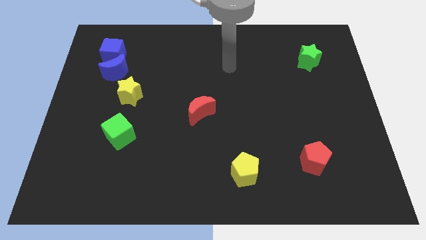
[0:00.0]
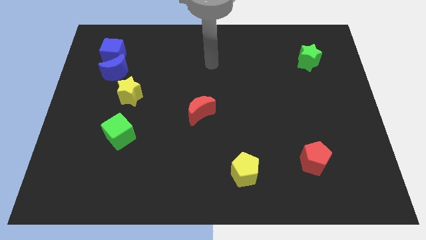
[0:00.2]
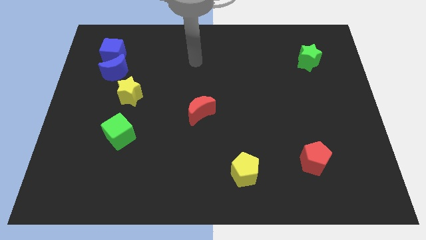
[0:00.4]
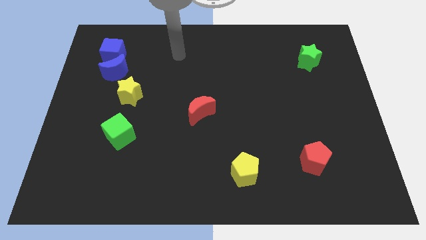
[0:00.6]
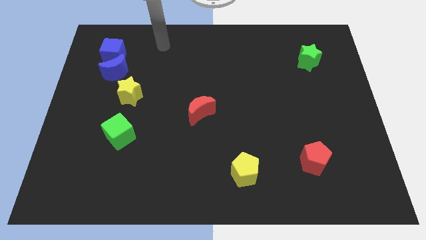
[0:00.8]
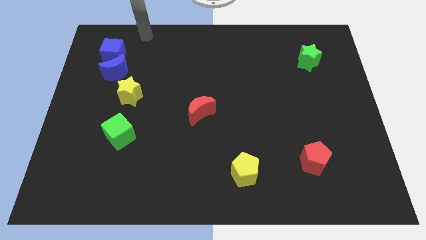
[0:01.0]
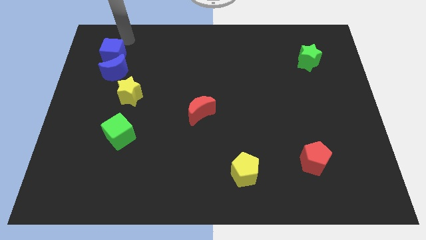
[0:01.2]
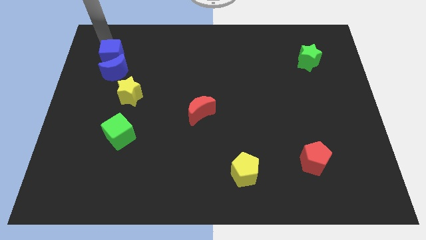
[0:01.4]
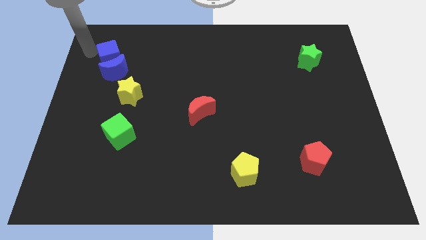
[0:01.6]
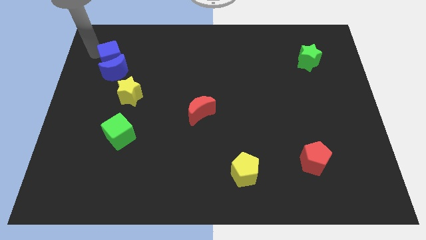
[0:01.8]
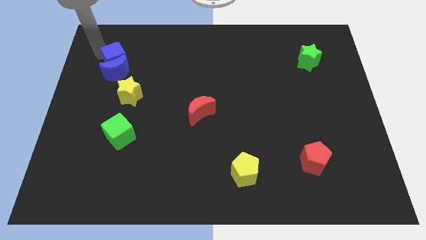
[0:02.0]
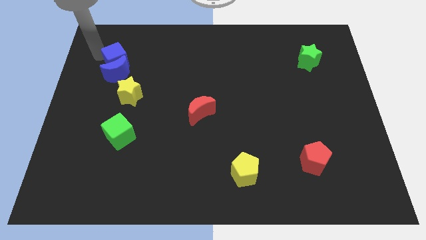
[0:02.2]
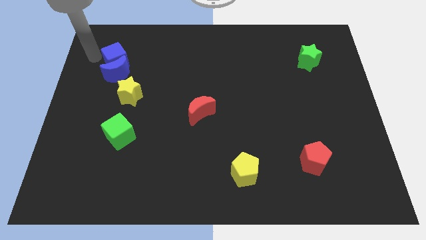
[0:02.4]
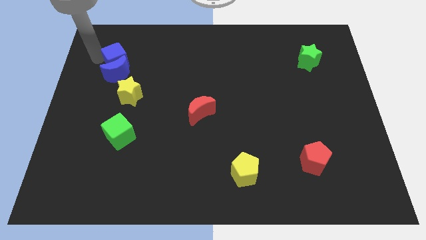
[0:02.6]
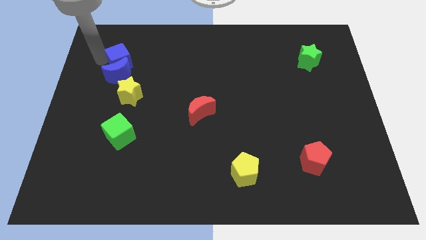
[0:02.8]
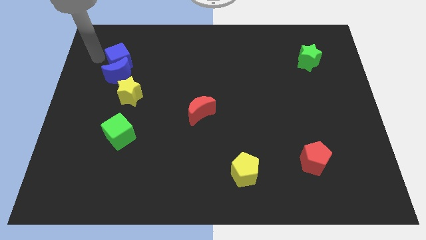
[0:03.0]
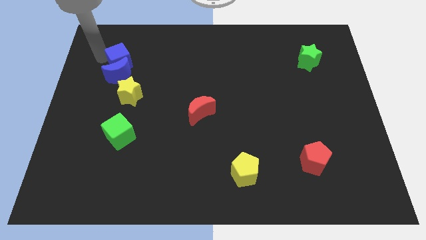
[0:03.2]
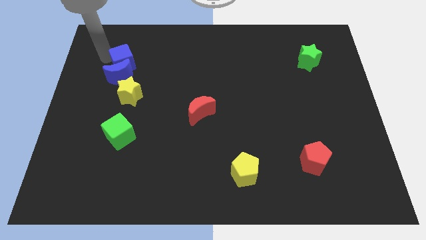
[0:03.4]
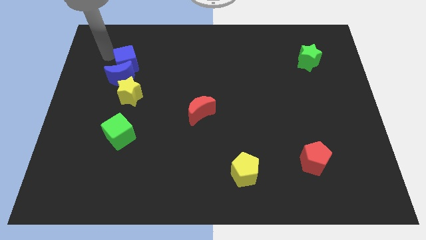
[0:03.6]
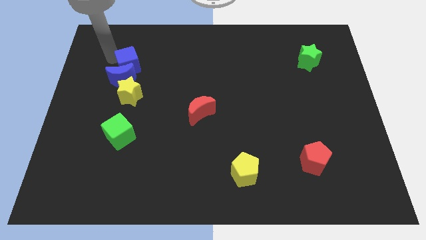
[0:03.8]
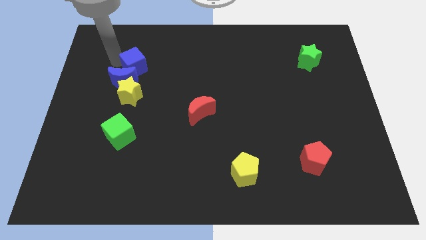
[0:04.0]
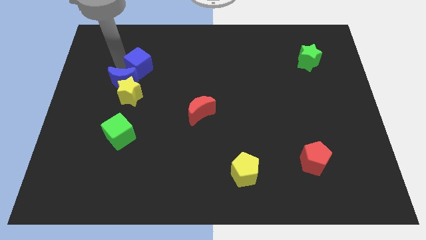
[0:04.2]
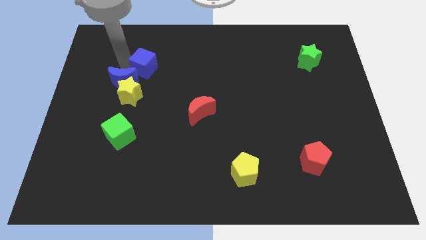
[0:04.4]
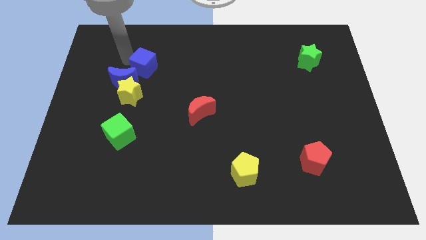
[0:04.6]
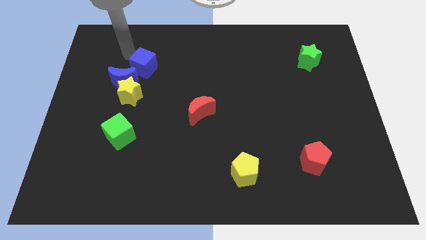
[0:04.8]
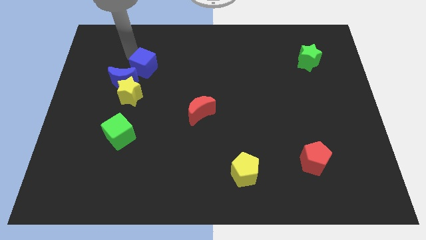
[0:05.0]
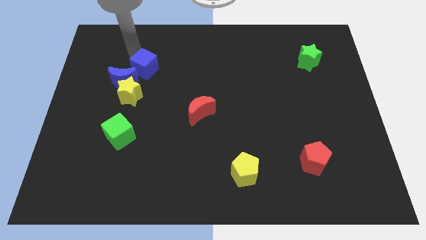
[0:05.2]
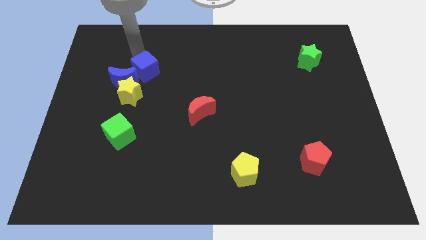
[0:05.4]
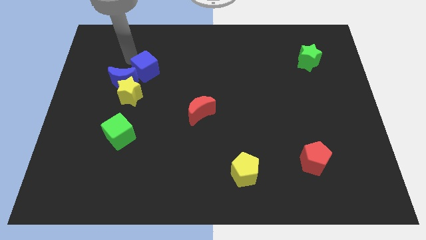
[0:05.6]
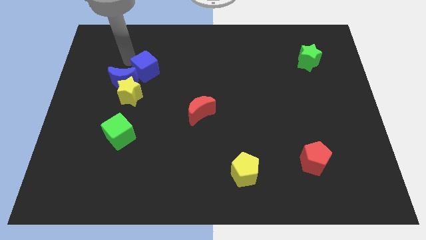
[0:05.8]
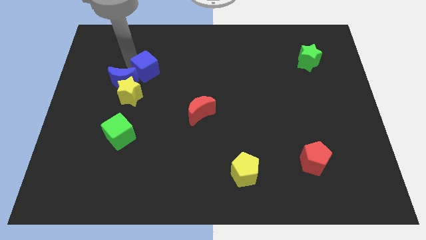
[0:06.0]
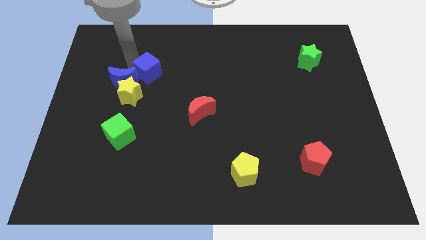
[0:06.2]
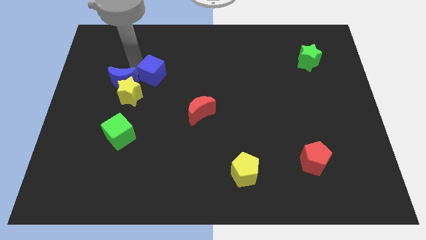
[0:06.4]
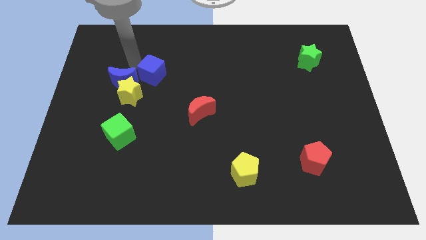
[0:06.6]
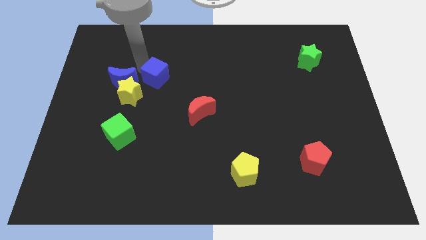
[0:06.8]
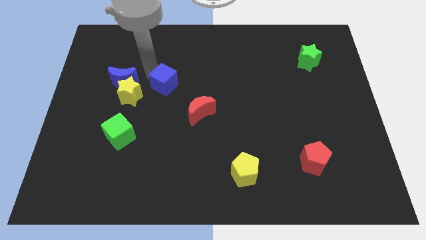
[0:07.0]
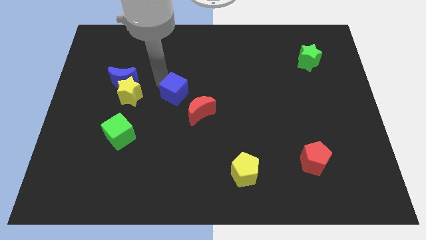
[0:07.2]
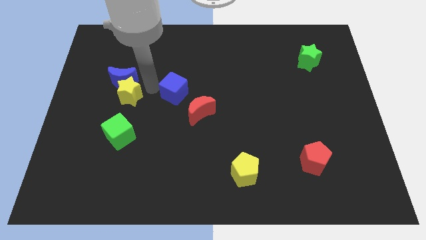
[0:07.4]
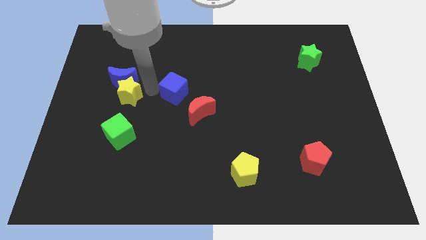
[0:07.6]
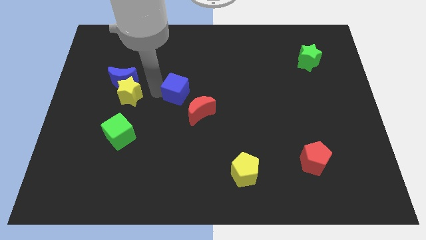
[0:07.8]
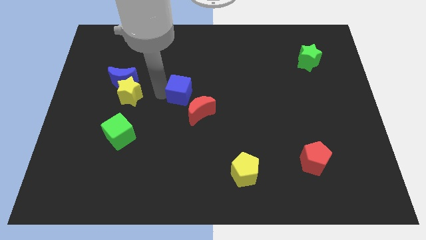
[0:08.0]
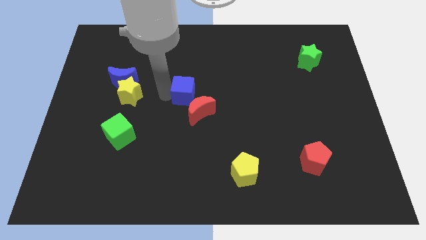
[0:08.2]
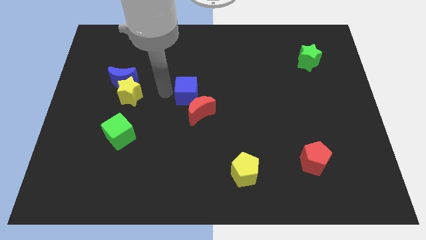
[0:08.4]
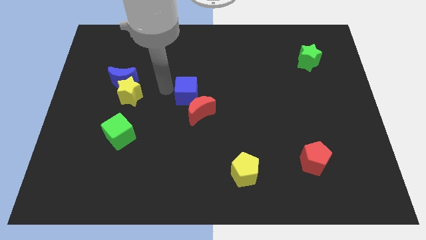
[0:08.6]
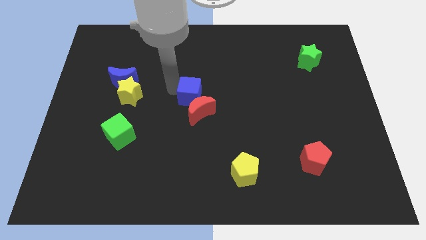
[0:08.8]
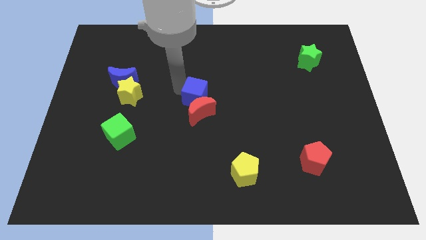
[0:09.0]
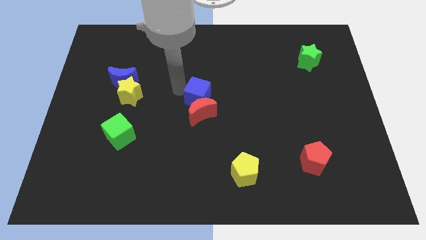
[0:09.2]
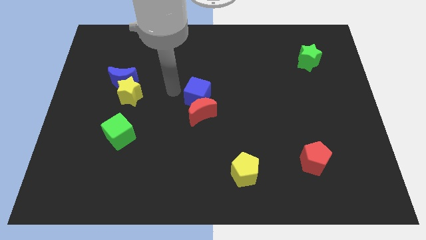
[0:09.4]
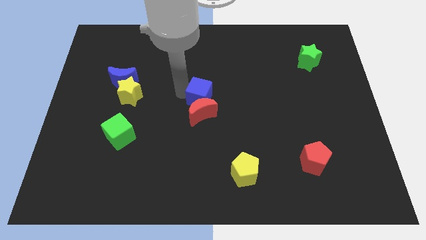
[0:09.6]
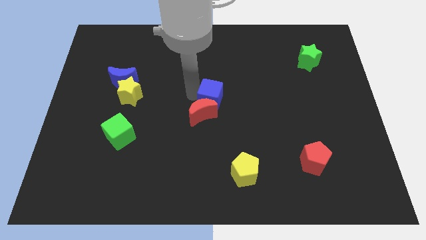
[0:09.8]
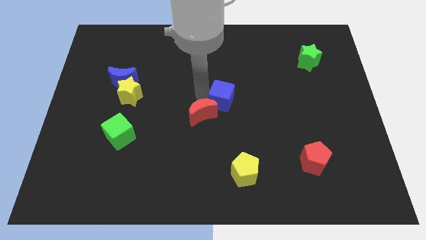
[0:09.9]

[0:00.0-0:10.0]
slide the blue cube just right of the red moon

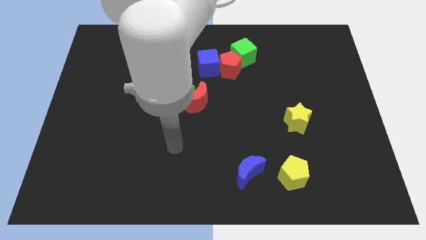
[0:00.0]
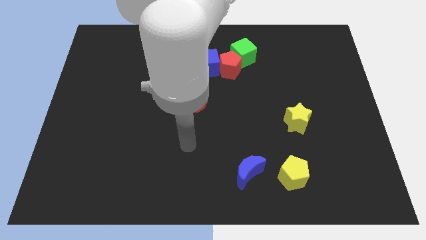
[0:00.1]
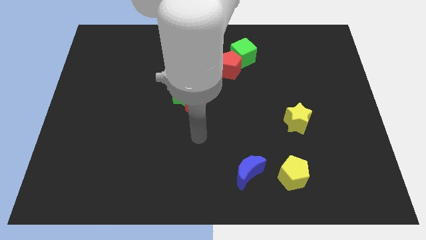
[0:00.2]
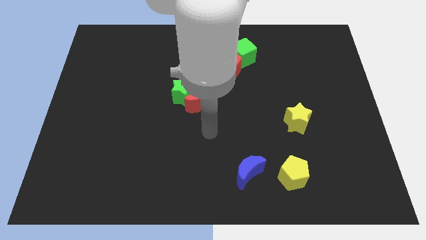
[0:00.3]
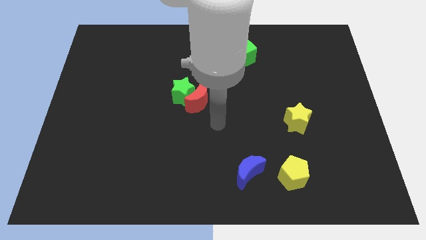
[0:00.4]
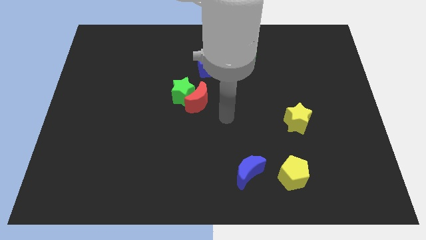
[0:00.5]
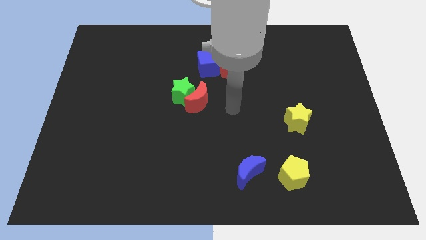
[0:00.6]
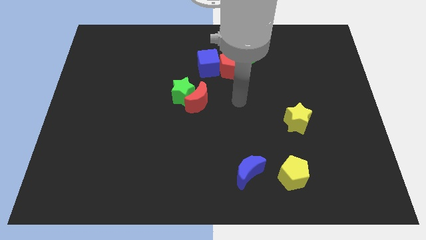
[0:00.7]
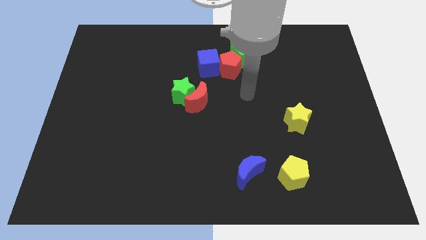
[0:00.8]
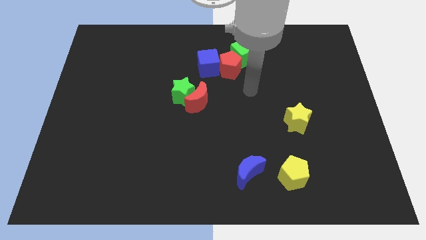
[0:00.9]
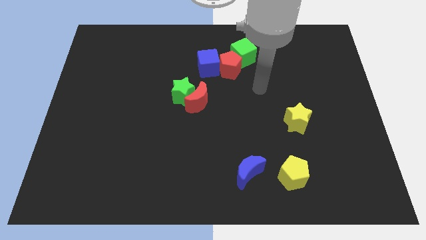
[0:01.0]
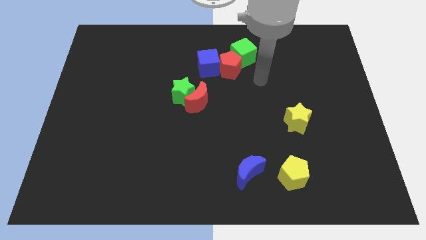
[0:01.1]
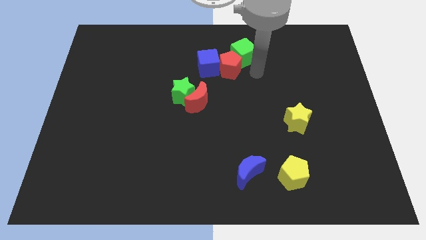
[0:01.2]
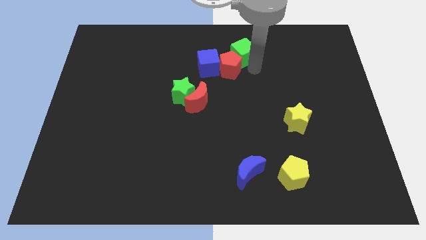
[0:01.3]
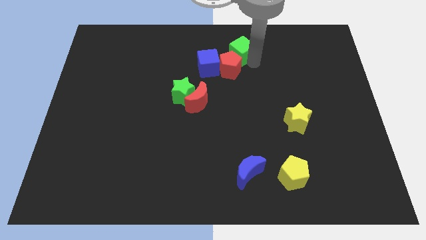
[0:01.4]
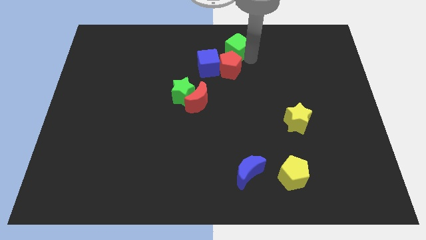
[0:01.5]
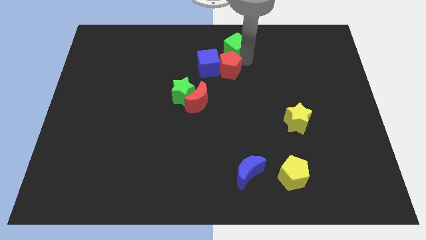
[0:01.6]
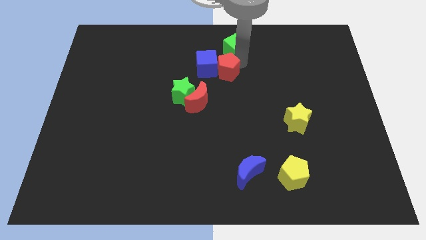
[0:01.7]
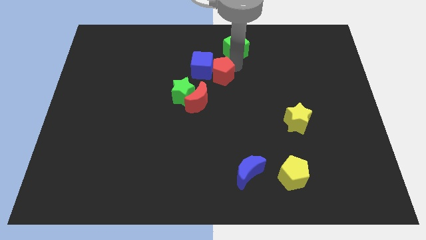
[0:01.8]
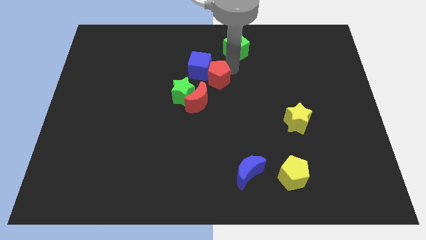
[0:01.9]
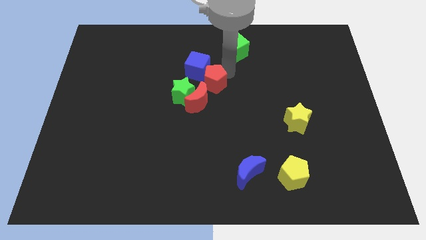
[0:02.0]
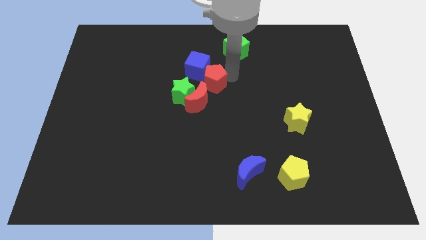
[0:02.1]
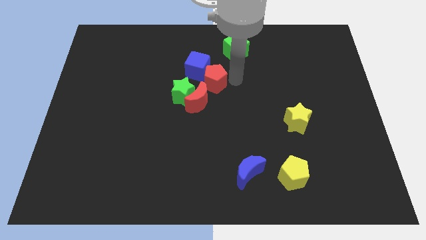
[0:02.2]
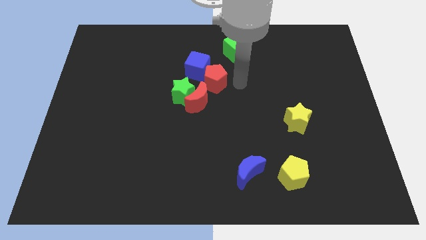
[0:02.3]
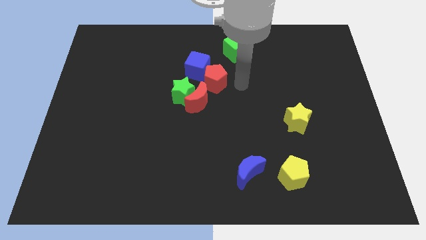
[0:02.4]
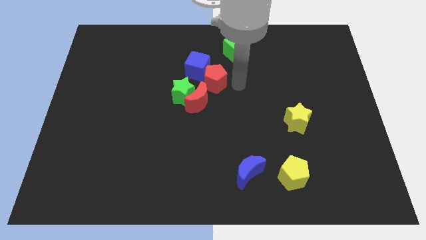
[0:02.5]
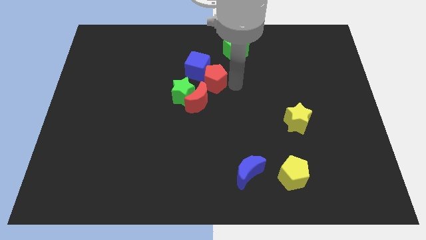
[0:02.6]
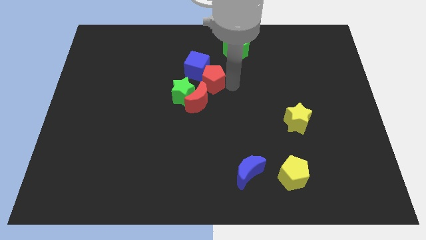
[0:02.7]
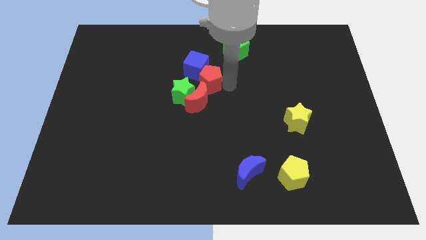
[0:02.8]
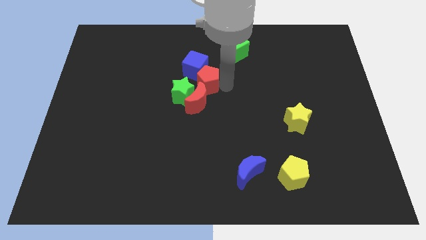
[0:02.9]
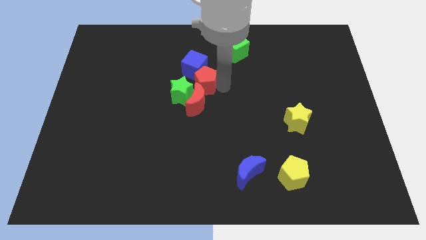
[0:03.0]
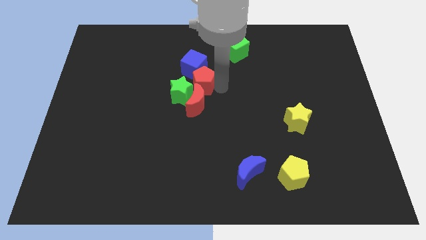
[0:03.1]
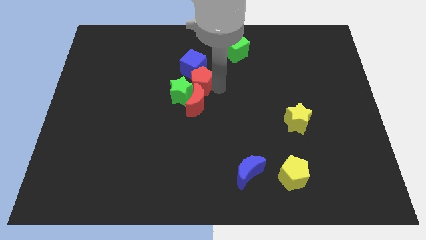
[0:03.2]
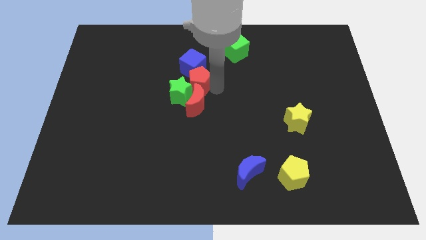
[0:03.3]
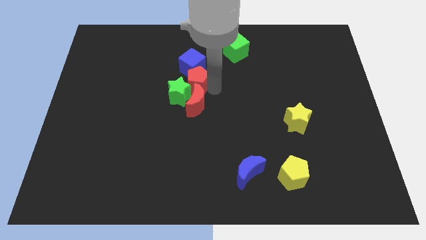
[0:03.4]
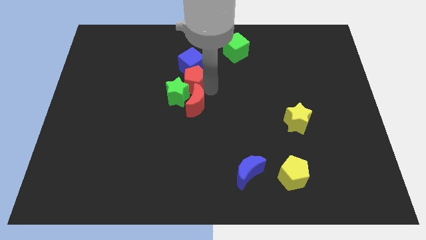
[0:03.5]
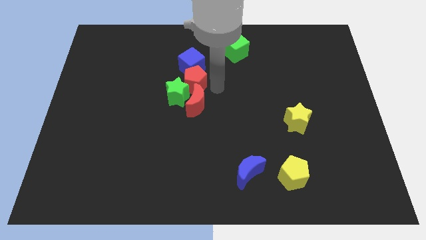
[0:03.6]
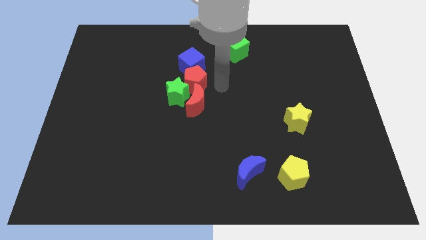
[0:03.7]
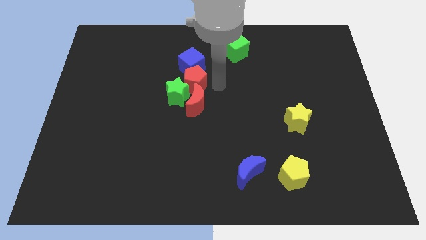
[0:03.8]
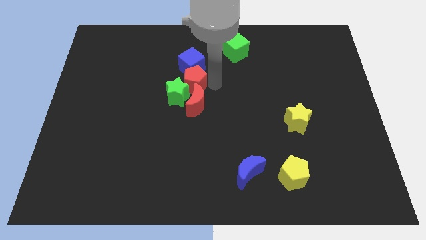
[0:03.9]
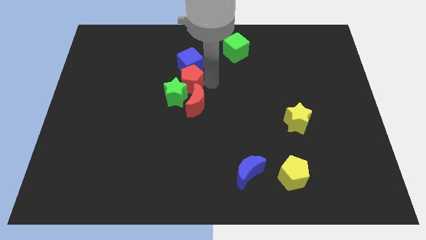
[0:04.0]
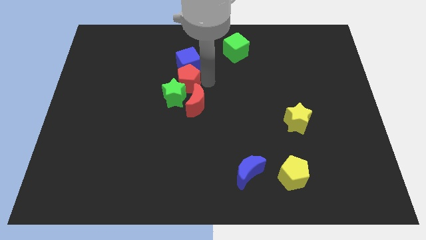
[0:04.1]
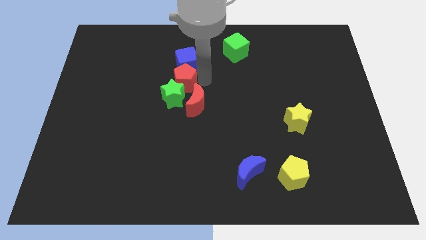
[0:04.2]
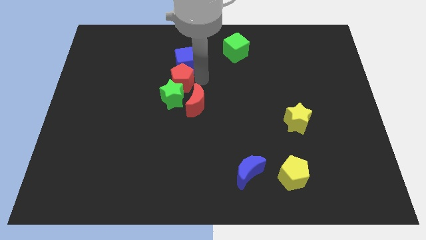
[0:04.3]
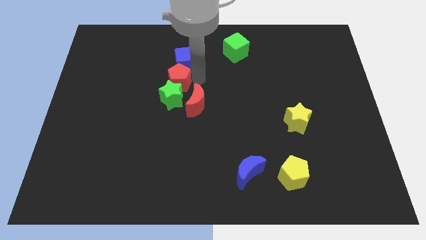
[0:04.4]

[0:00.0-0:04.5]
slide the red pentagon to the top left side of the green star
